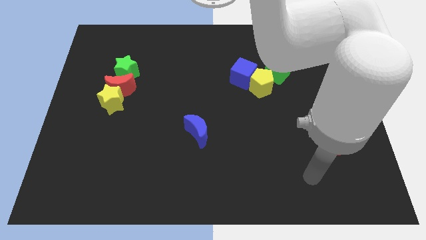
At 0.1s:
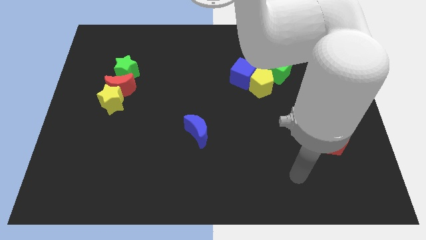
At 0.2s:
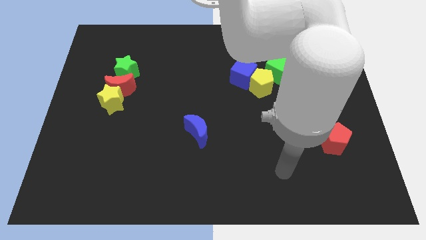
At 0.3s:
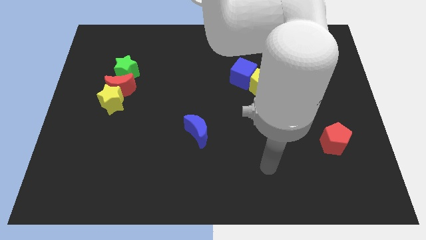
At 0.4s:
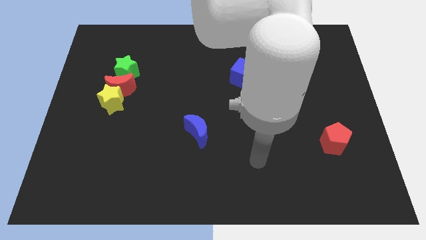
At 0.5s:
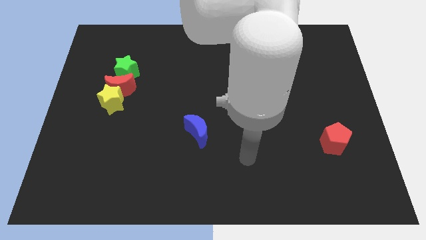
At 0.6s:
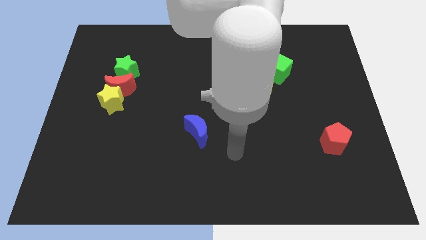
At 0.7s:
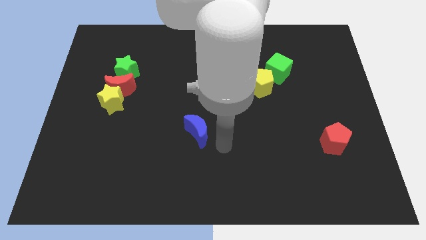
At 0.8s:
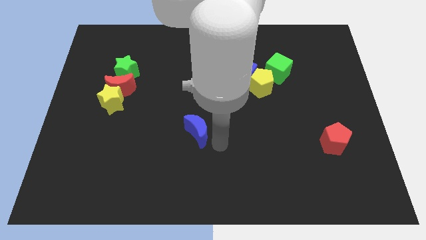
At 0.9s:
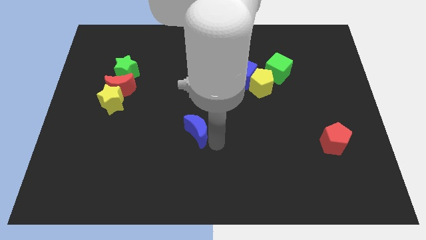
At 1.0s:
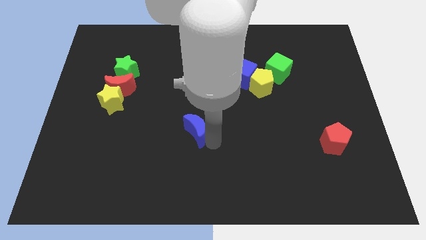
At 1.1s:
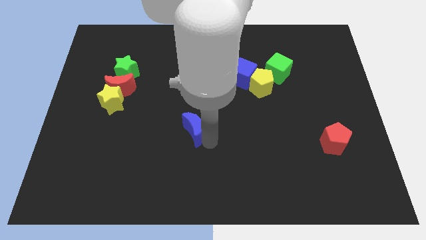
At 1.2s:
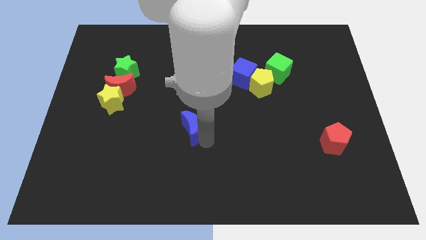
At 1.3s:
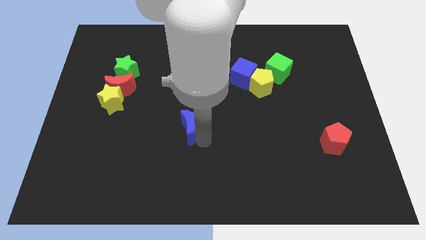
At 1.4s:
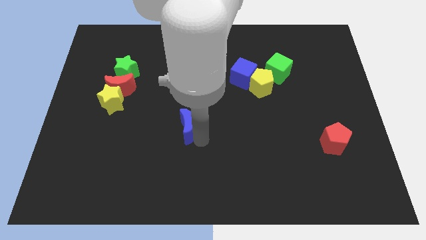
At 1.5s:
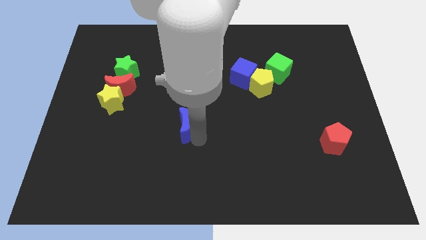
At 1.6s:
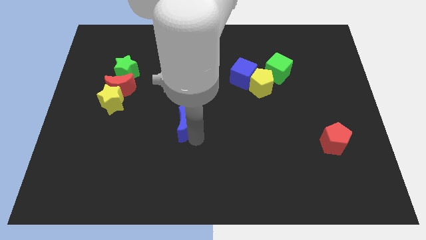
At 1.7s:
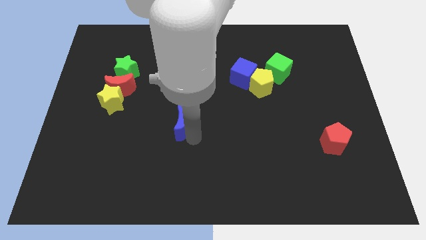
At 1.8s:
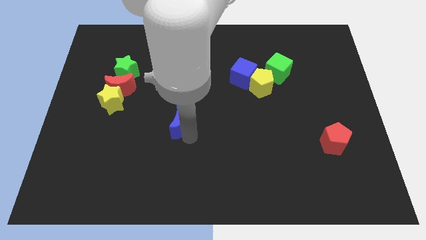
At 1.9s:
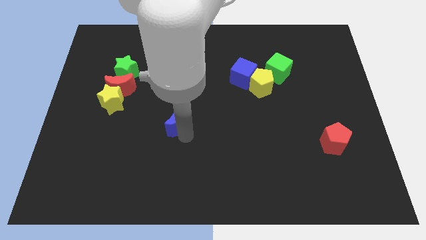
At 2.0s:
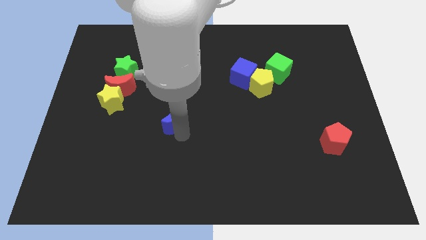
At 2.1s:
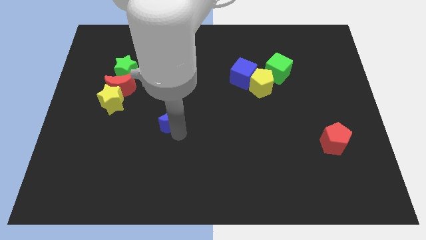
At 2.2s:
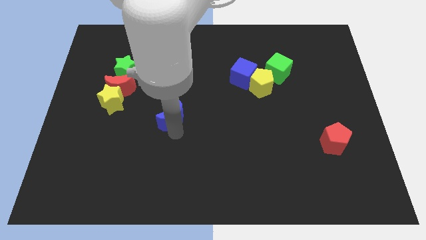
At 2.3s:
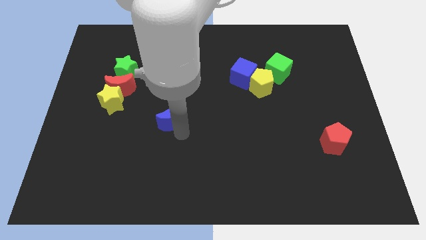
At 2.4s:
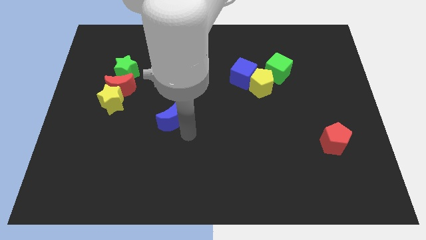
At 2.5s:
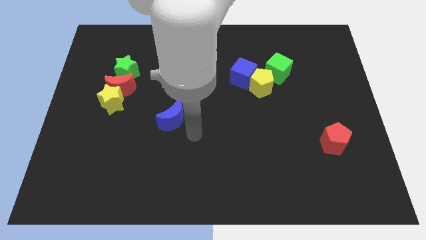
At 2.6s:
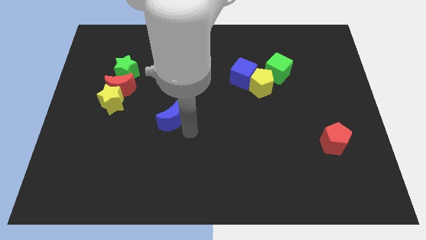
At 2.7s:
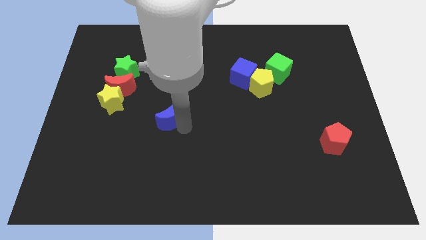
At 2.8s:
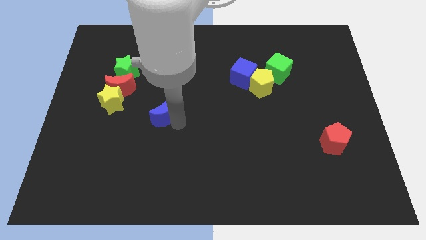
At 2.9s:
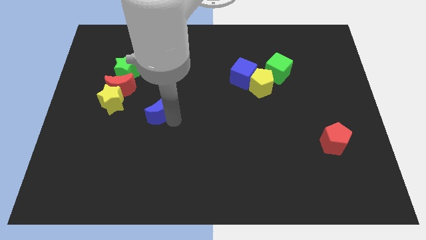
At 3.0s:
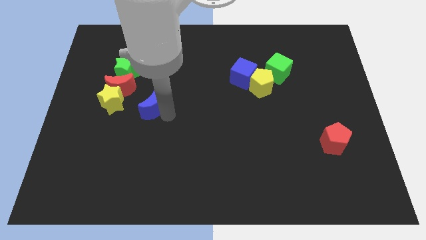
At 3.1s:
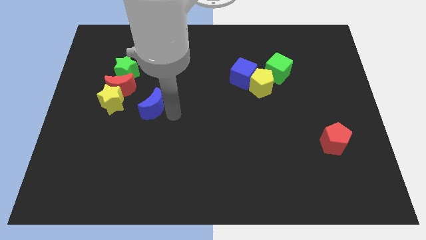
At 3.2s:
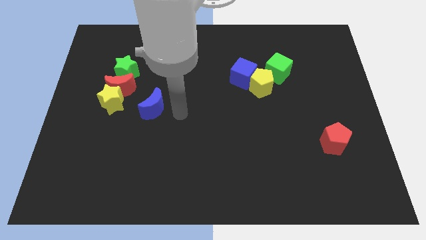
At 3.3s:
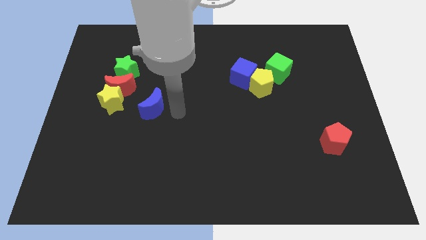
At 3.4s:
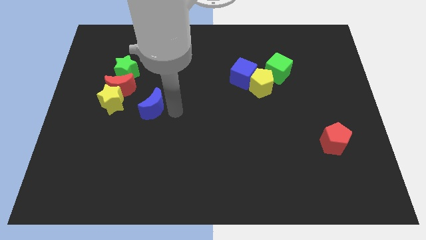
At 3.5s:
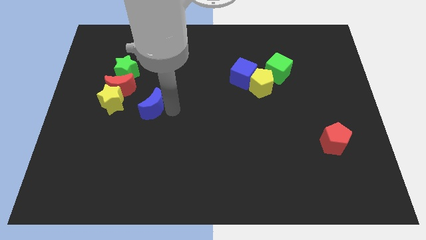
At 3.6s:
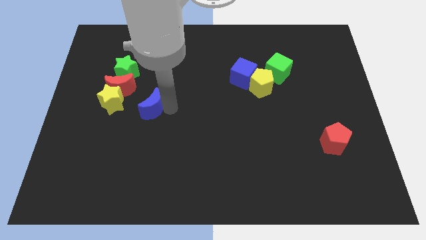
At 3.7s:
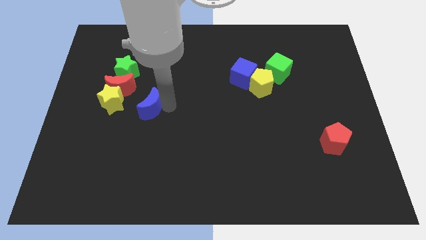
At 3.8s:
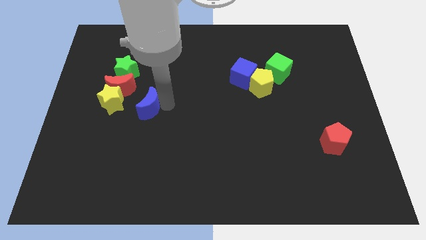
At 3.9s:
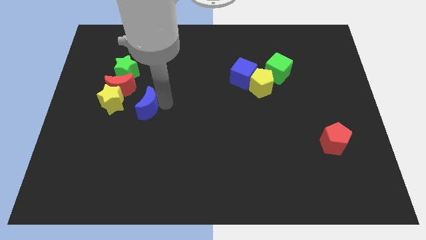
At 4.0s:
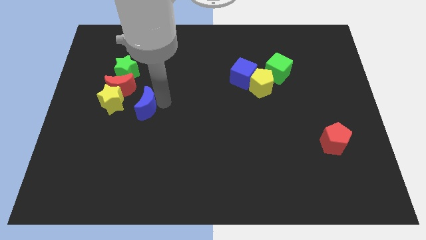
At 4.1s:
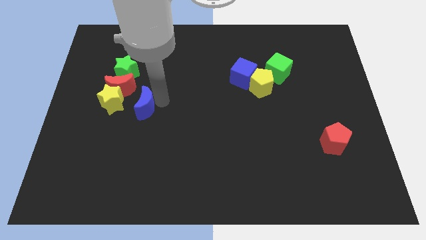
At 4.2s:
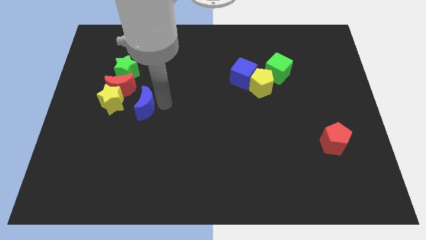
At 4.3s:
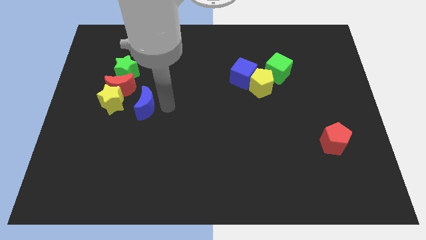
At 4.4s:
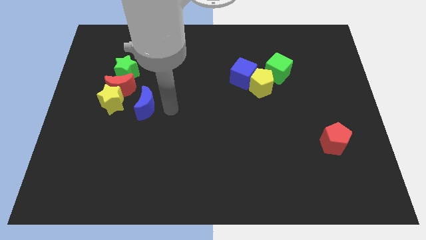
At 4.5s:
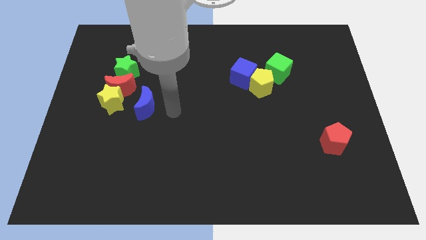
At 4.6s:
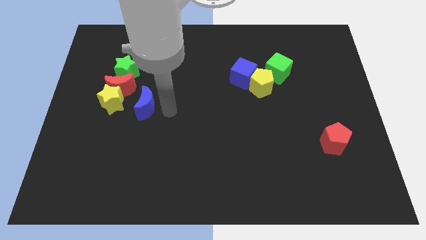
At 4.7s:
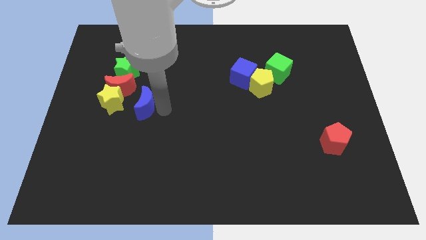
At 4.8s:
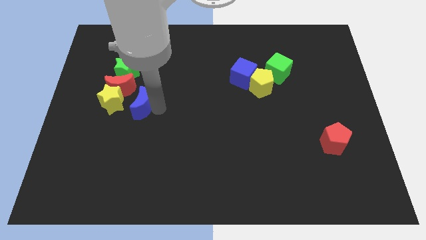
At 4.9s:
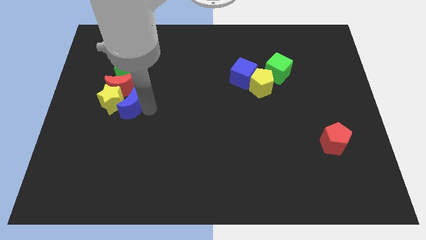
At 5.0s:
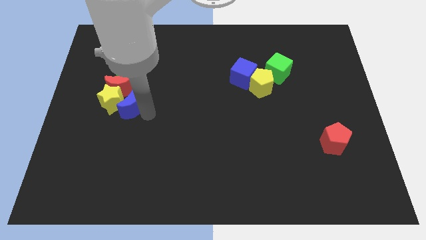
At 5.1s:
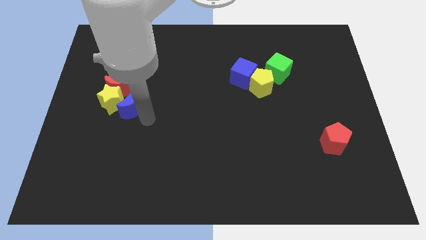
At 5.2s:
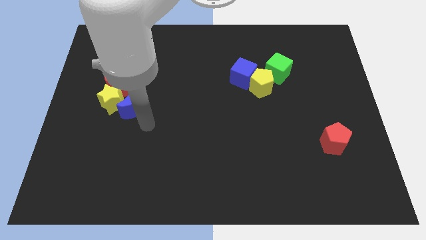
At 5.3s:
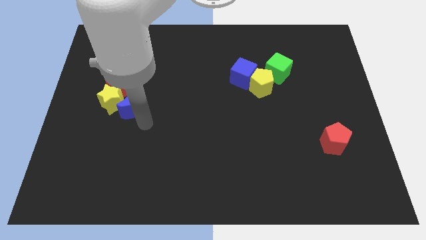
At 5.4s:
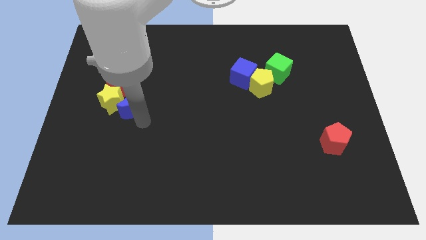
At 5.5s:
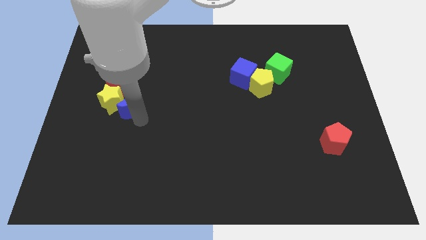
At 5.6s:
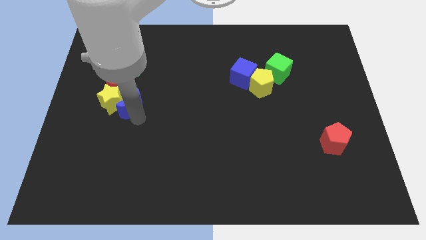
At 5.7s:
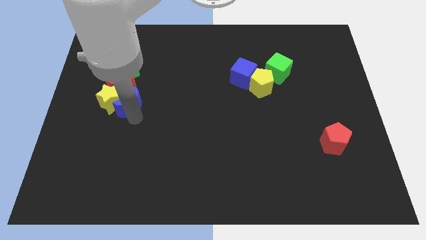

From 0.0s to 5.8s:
push the blue moon to the red moon

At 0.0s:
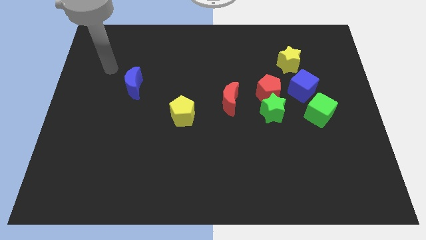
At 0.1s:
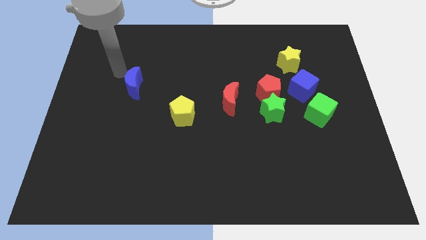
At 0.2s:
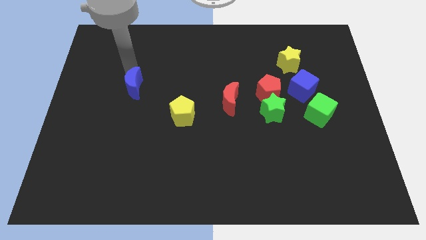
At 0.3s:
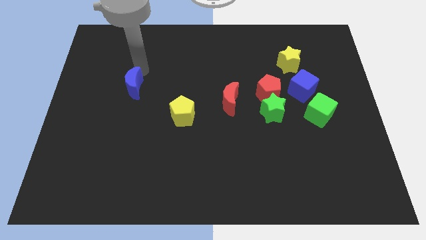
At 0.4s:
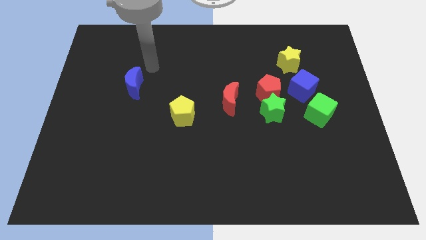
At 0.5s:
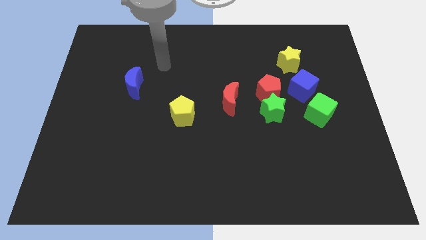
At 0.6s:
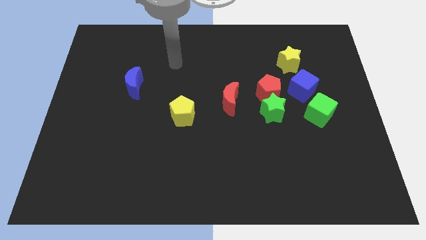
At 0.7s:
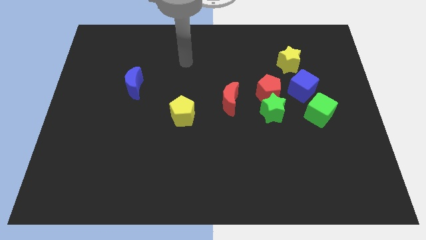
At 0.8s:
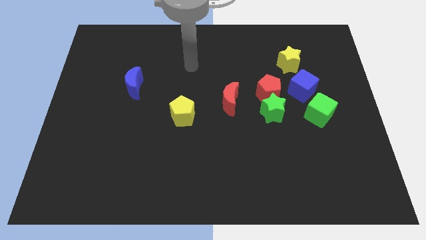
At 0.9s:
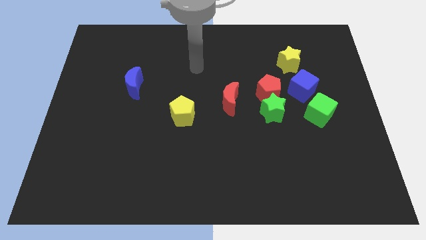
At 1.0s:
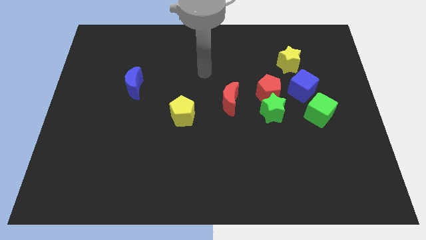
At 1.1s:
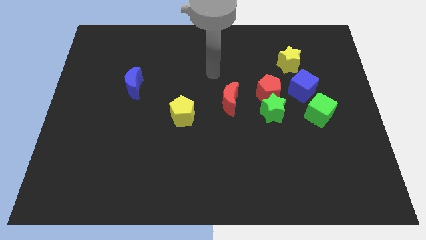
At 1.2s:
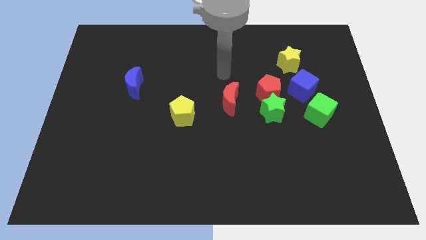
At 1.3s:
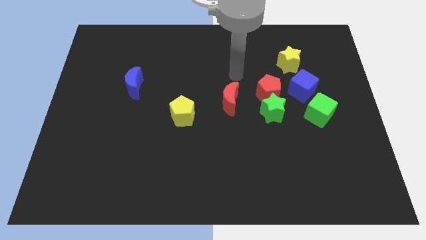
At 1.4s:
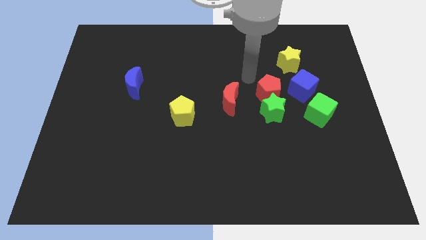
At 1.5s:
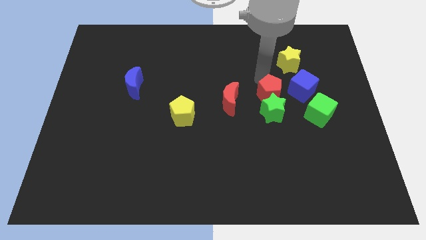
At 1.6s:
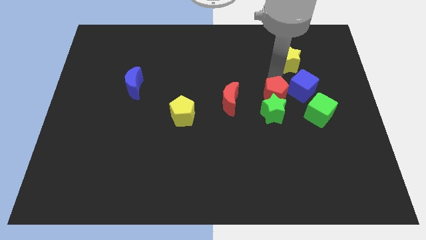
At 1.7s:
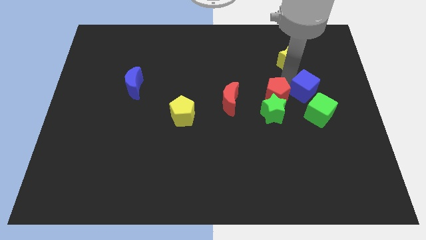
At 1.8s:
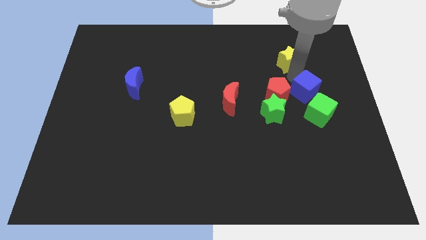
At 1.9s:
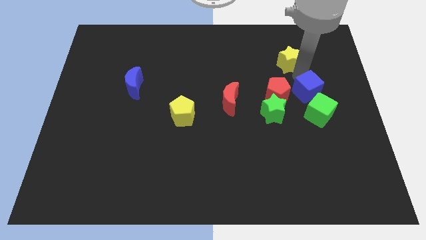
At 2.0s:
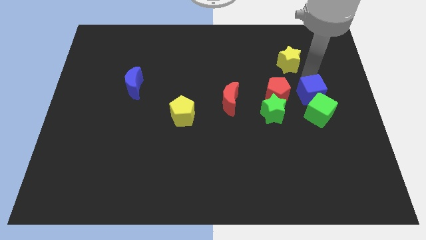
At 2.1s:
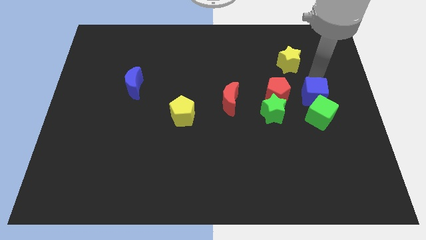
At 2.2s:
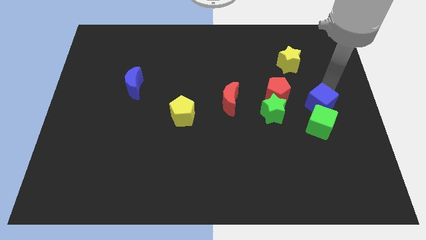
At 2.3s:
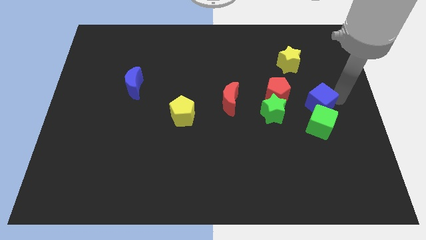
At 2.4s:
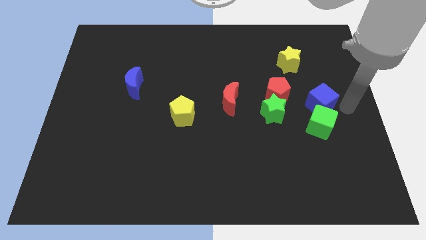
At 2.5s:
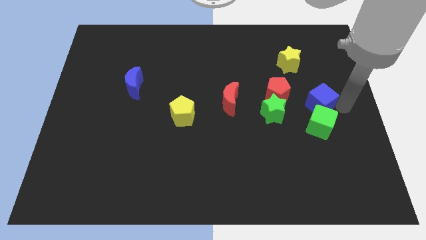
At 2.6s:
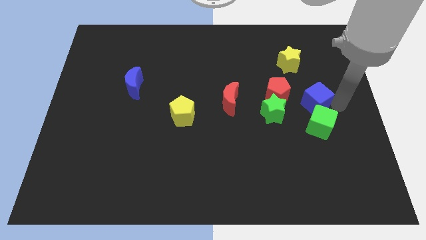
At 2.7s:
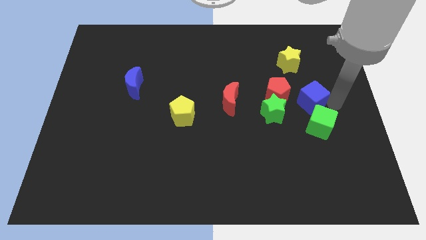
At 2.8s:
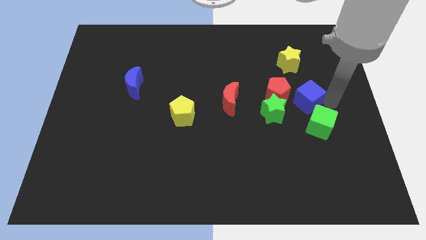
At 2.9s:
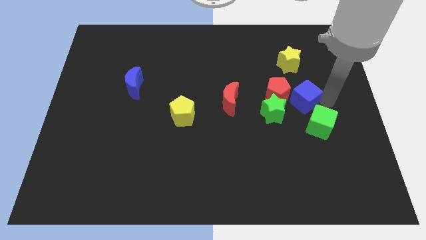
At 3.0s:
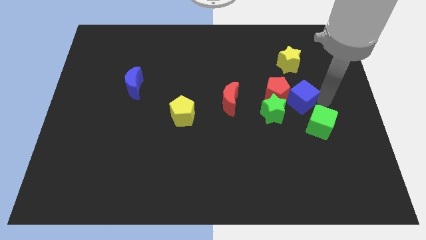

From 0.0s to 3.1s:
slide the blue cube towards the red pentagon
